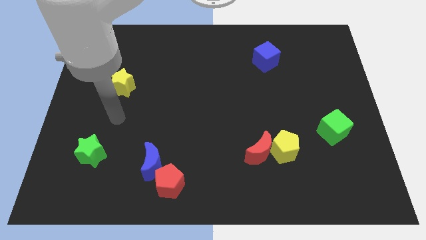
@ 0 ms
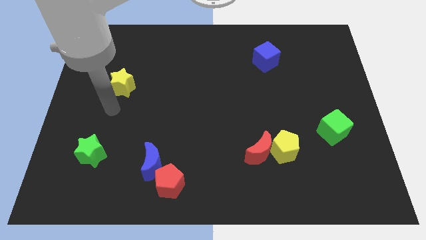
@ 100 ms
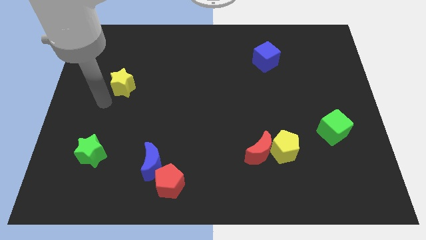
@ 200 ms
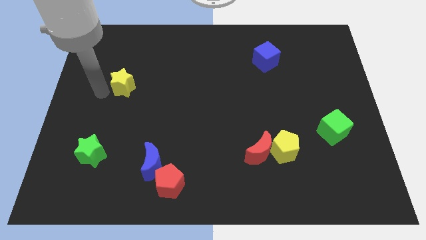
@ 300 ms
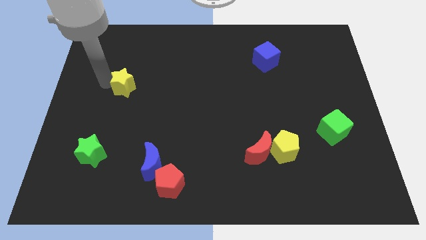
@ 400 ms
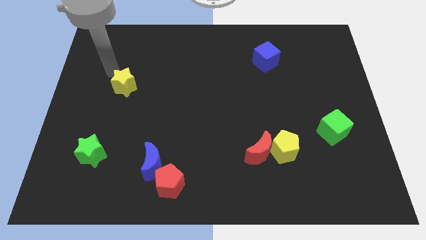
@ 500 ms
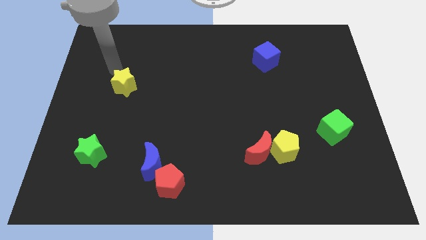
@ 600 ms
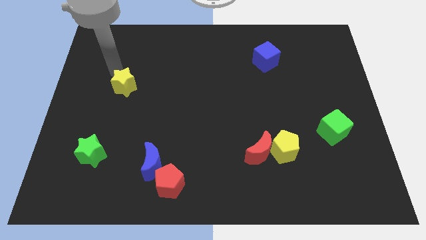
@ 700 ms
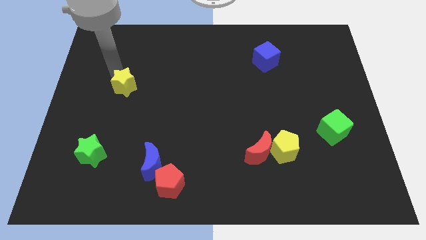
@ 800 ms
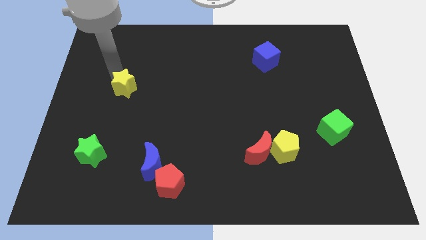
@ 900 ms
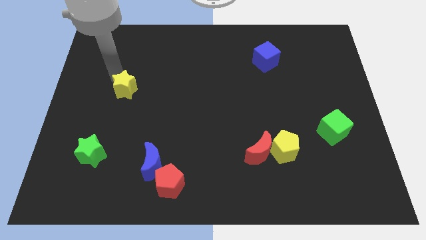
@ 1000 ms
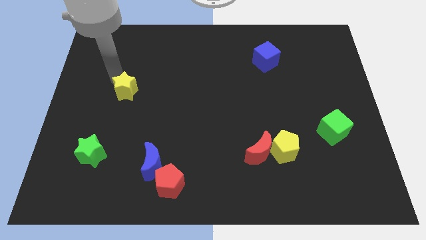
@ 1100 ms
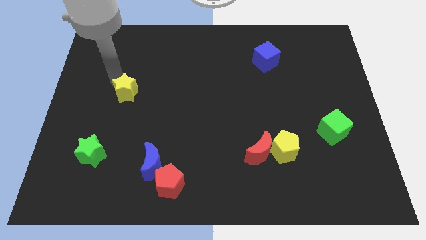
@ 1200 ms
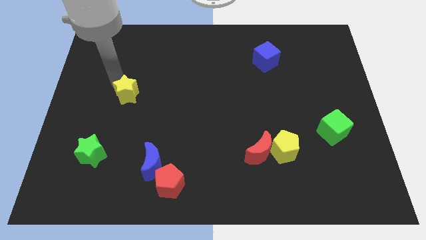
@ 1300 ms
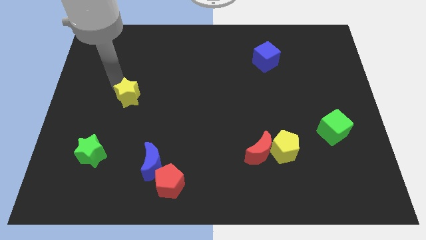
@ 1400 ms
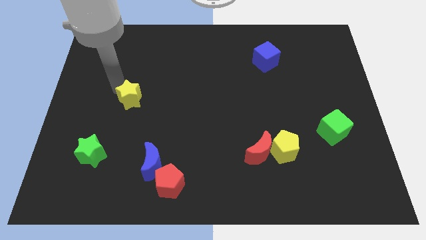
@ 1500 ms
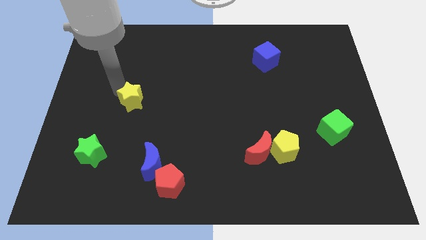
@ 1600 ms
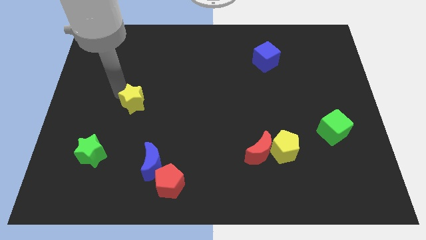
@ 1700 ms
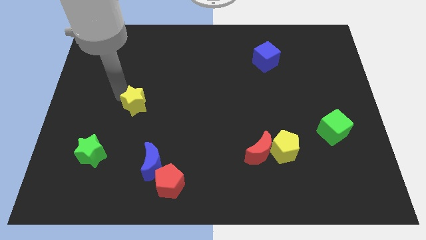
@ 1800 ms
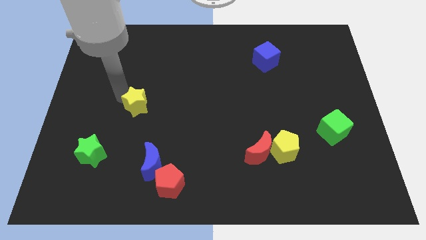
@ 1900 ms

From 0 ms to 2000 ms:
slightly slide the yellow star down and then right

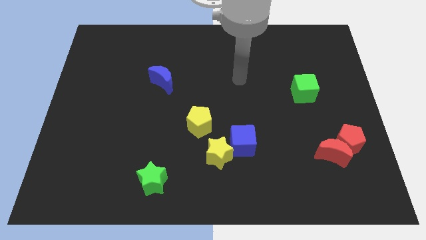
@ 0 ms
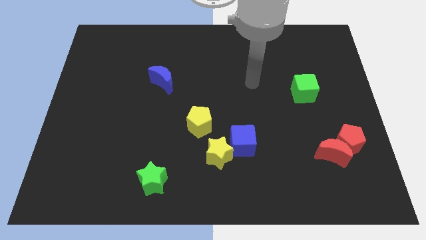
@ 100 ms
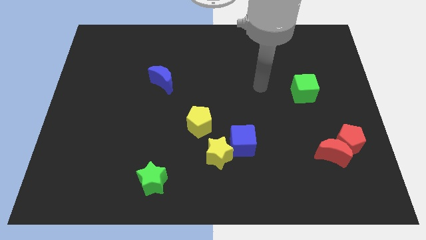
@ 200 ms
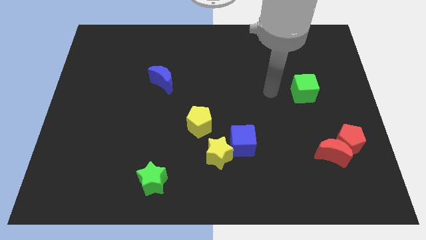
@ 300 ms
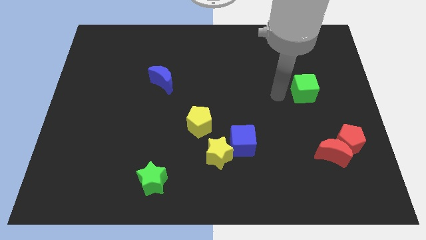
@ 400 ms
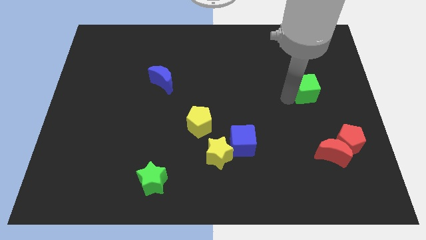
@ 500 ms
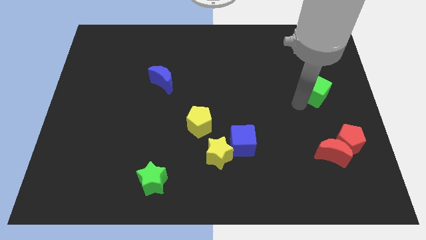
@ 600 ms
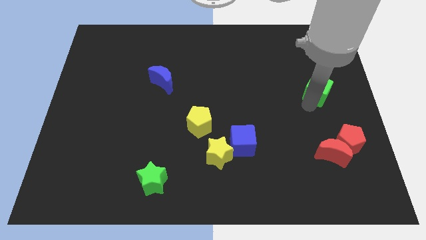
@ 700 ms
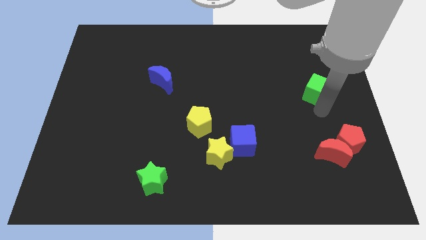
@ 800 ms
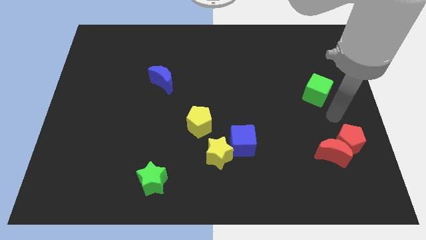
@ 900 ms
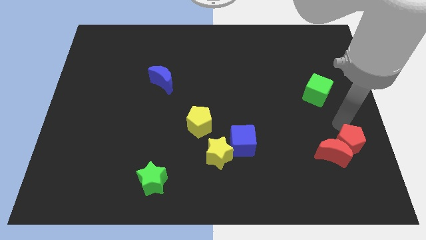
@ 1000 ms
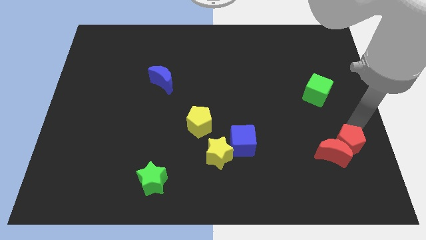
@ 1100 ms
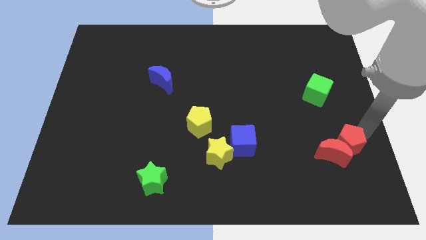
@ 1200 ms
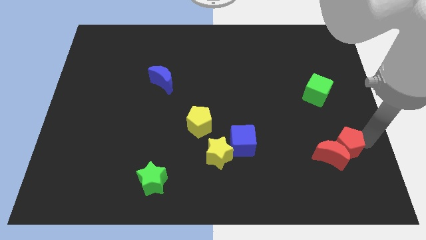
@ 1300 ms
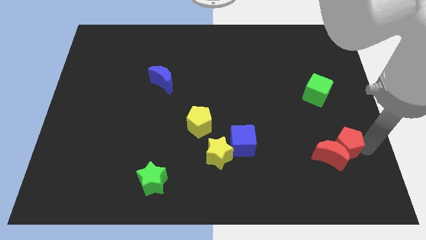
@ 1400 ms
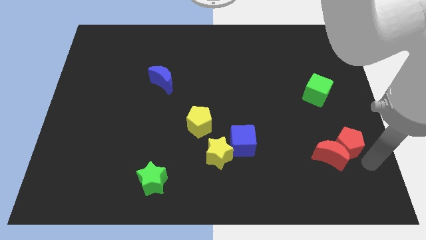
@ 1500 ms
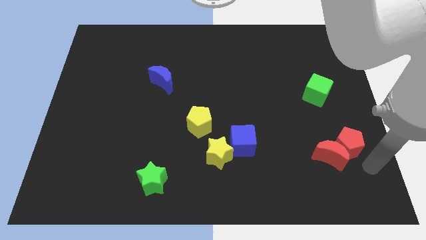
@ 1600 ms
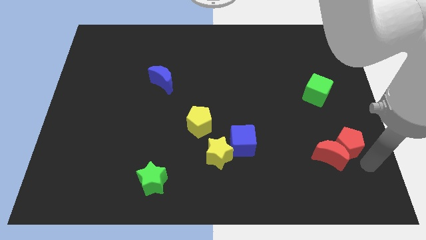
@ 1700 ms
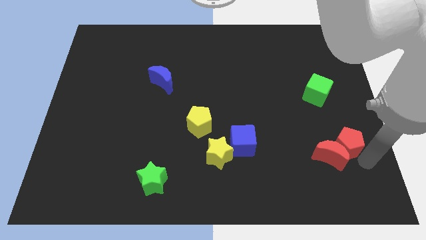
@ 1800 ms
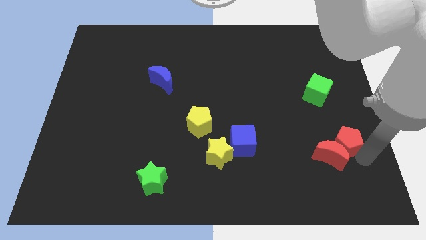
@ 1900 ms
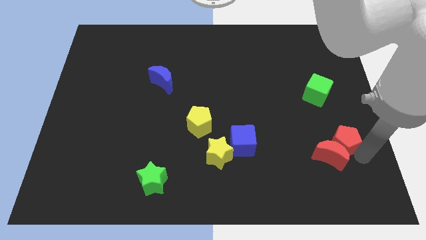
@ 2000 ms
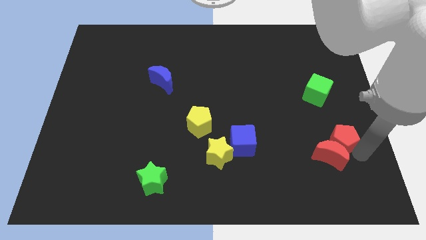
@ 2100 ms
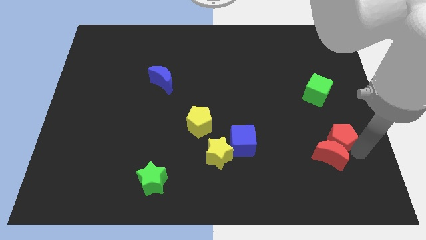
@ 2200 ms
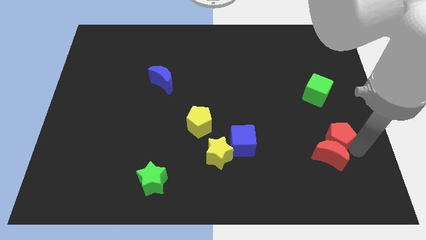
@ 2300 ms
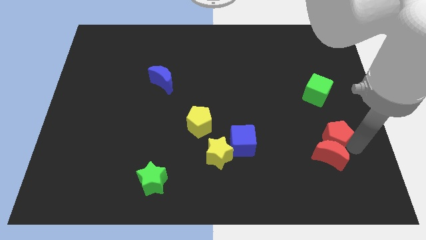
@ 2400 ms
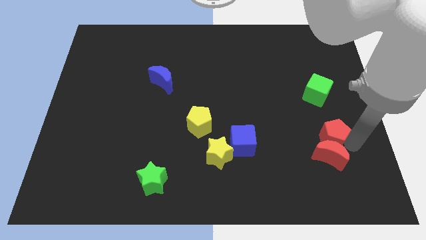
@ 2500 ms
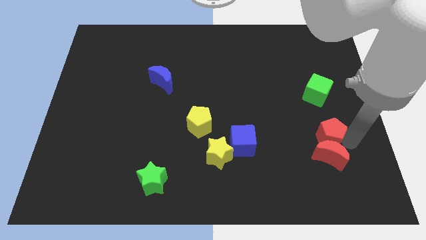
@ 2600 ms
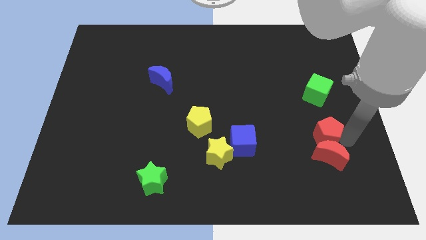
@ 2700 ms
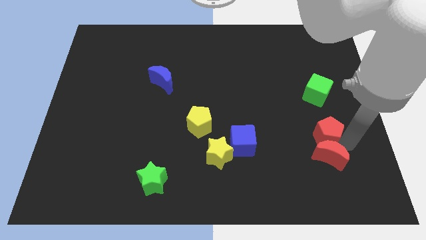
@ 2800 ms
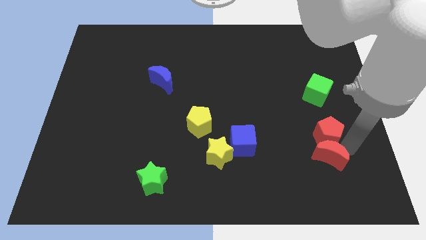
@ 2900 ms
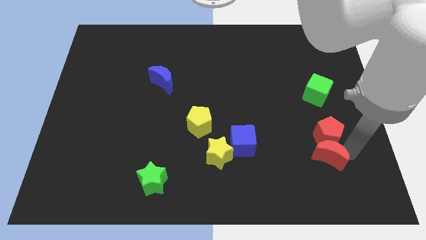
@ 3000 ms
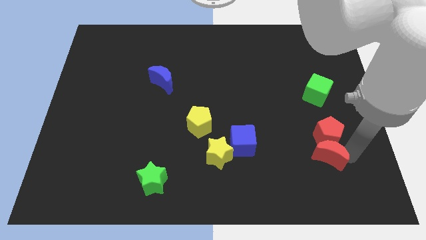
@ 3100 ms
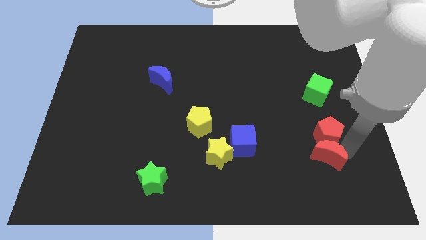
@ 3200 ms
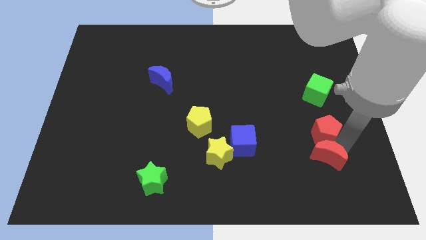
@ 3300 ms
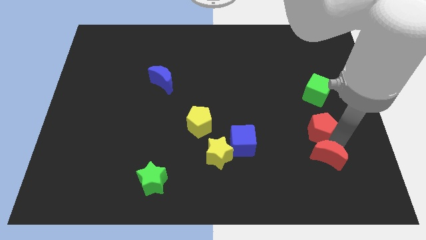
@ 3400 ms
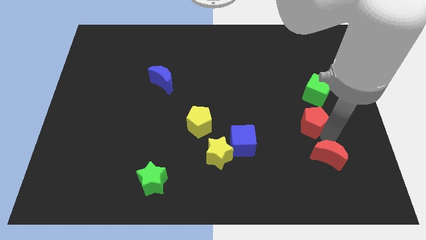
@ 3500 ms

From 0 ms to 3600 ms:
slightly move the red pentagon up and then to the left

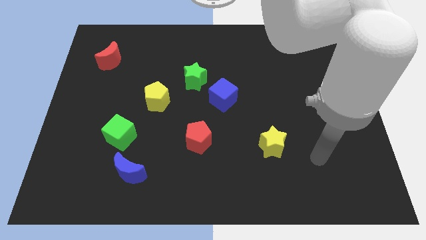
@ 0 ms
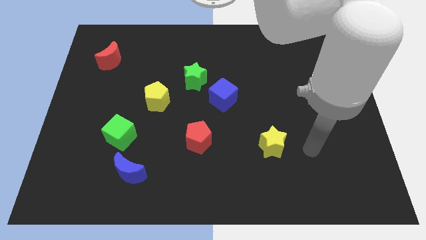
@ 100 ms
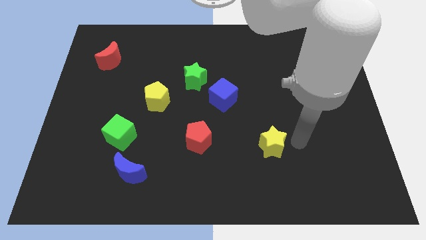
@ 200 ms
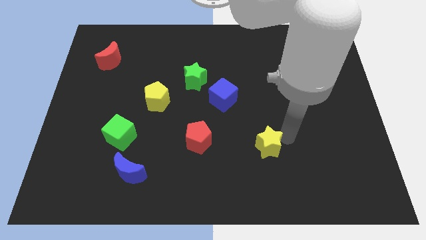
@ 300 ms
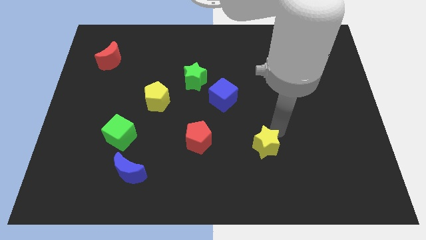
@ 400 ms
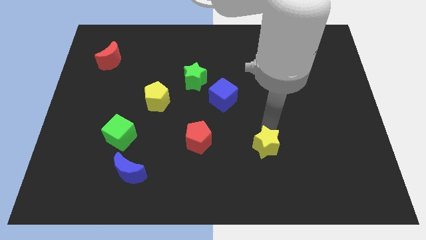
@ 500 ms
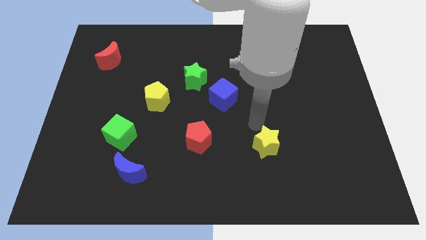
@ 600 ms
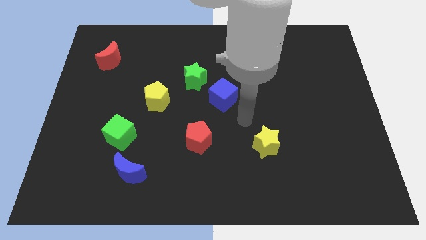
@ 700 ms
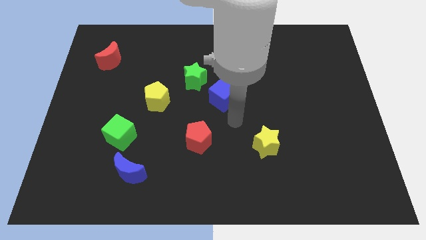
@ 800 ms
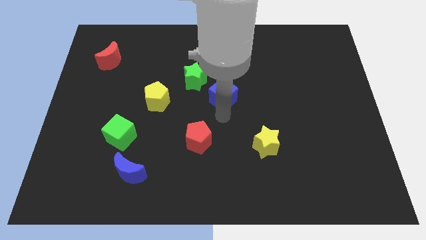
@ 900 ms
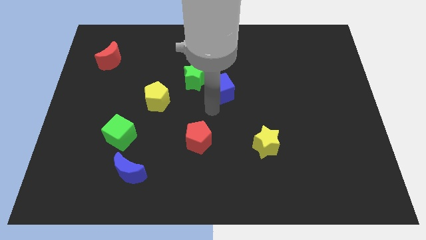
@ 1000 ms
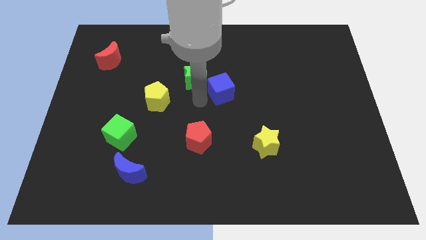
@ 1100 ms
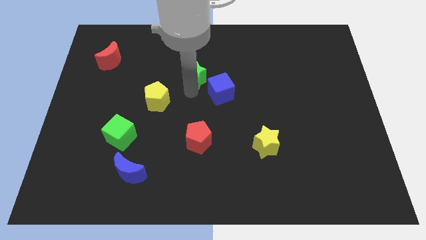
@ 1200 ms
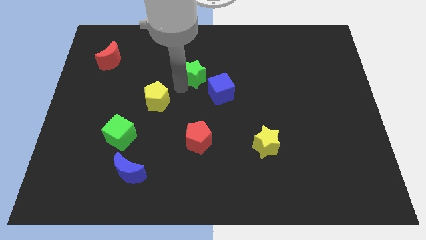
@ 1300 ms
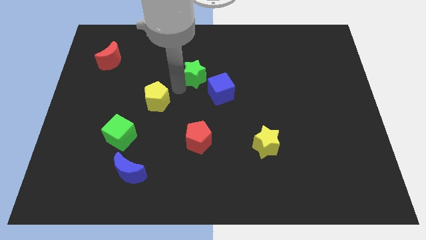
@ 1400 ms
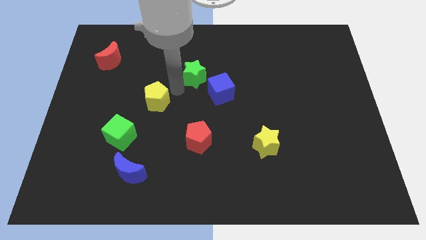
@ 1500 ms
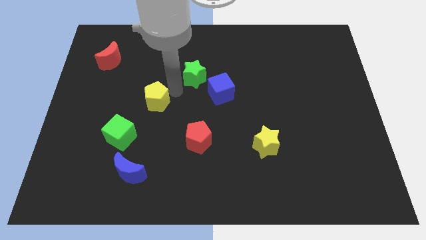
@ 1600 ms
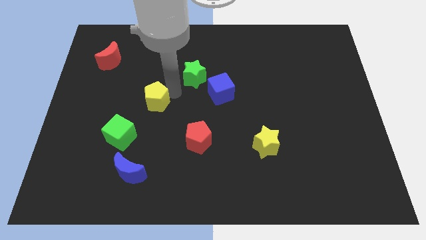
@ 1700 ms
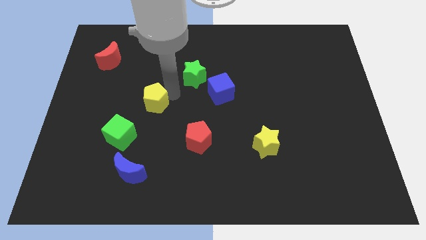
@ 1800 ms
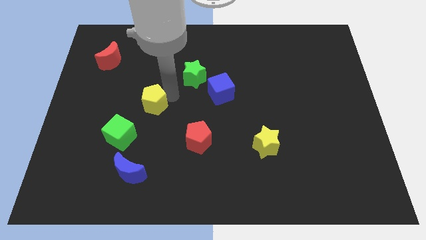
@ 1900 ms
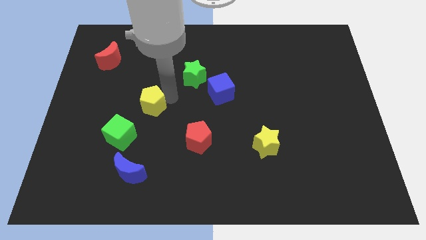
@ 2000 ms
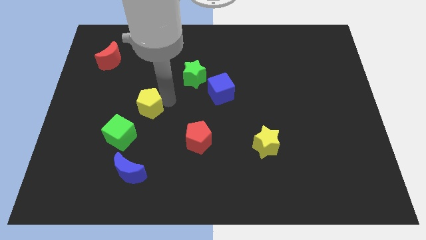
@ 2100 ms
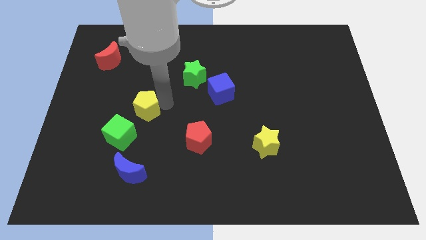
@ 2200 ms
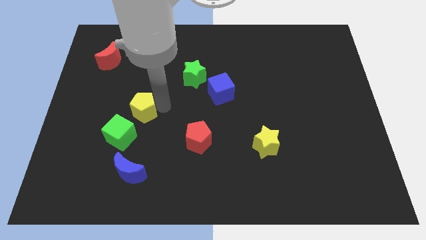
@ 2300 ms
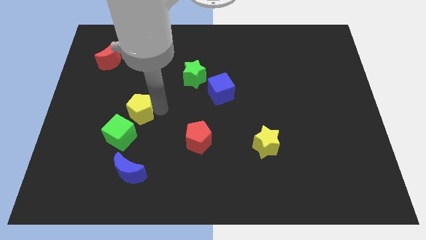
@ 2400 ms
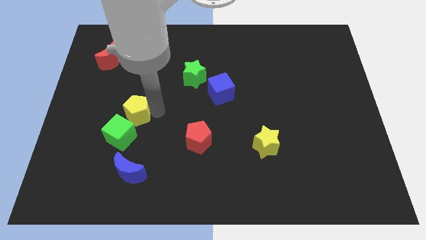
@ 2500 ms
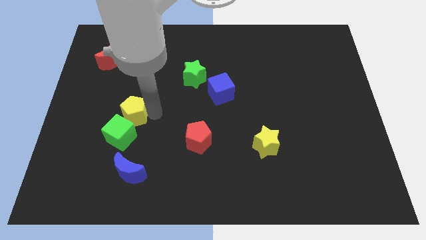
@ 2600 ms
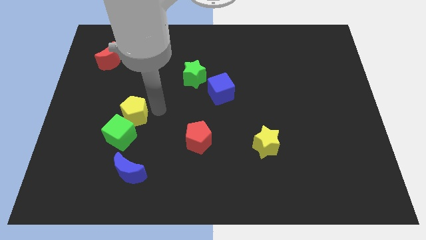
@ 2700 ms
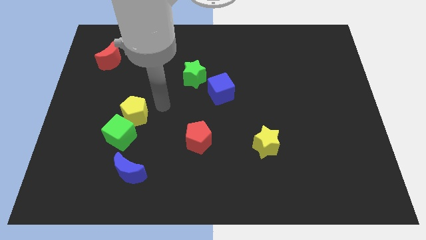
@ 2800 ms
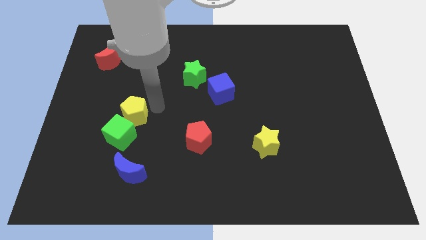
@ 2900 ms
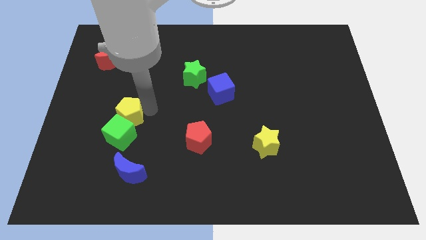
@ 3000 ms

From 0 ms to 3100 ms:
move the yellow pentagon down and then left a little
